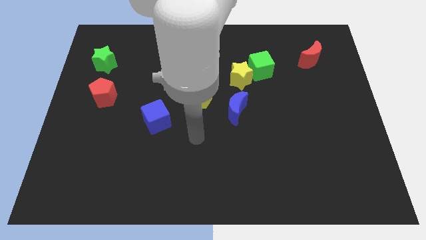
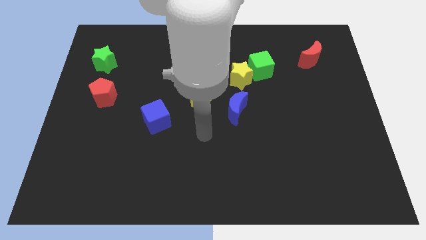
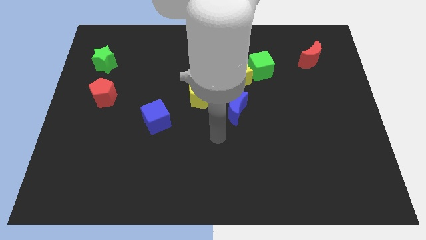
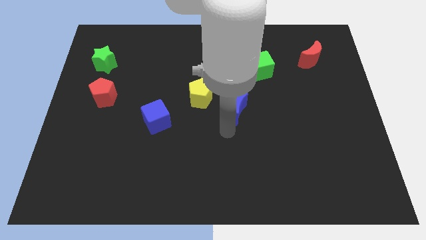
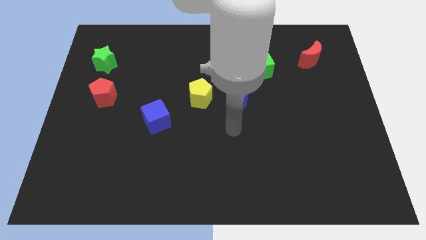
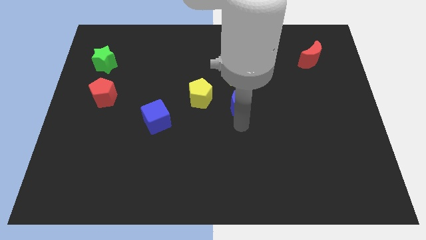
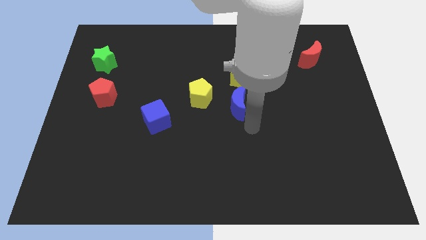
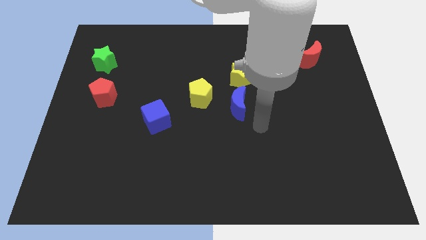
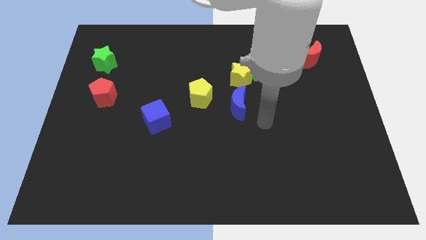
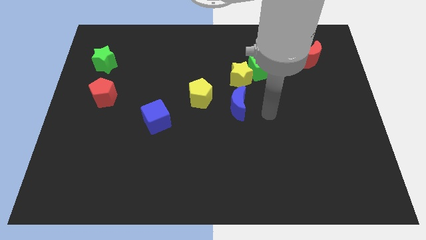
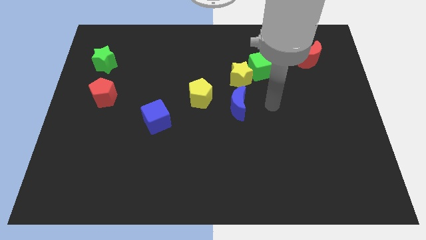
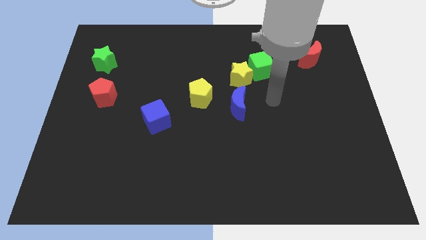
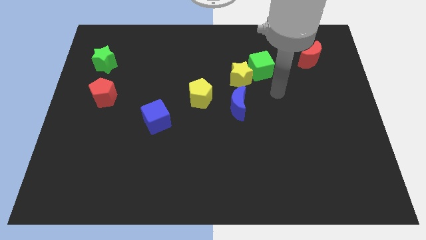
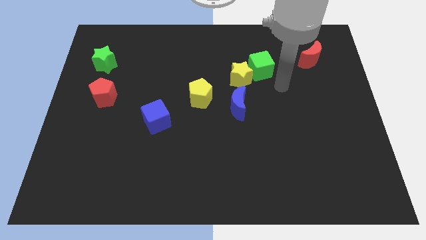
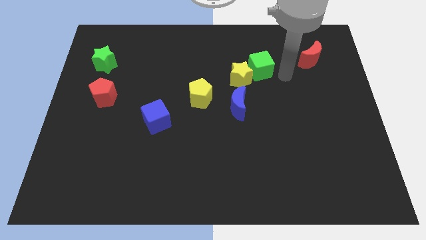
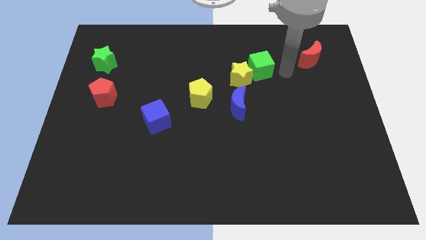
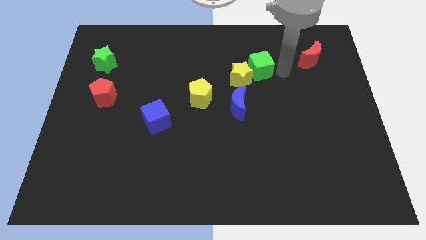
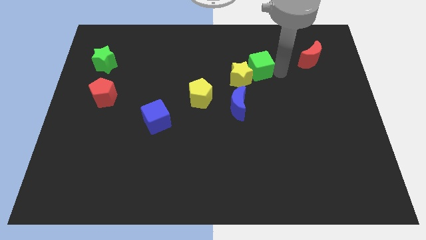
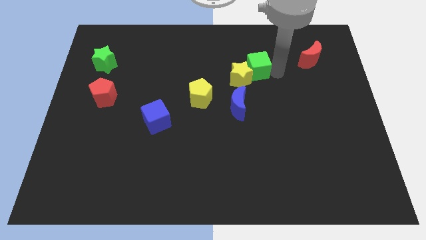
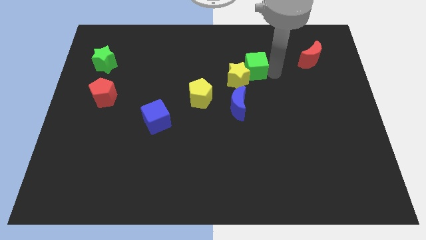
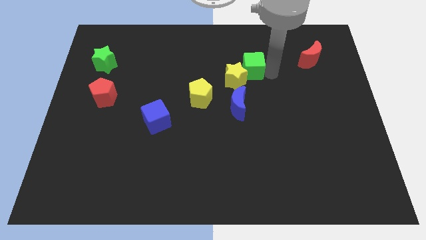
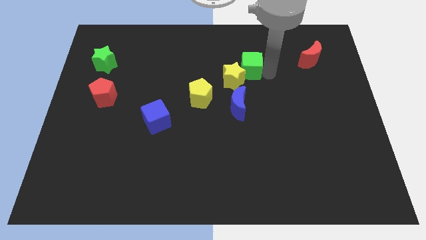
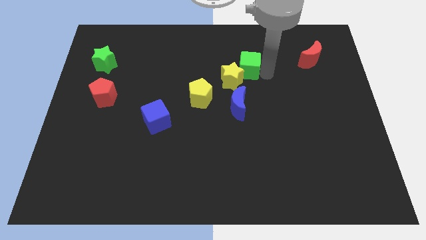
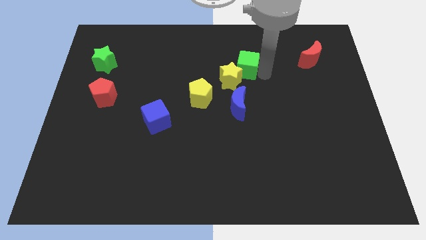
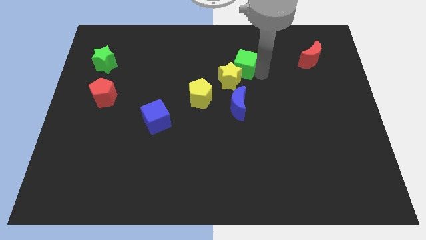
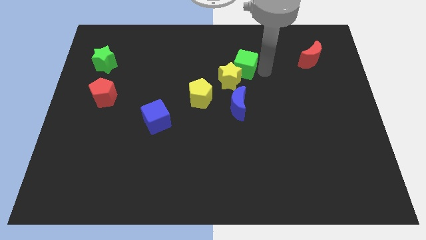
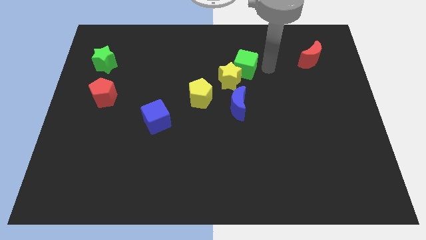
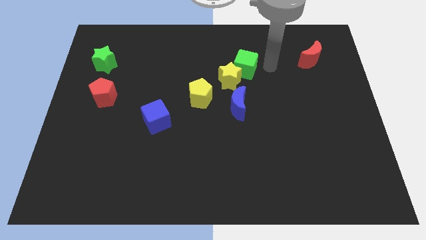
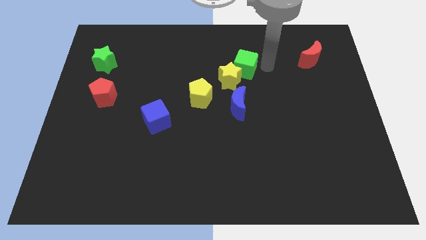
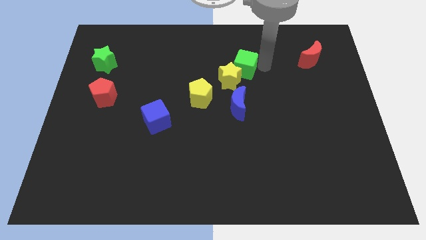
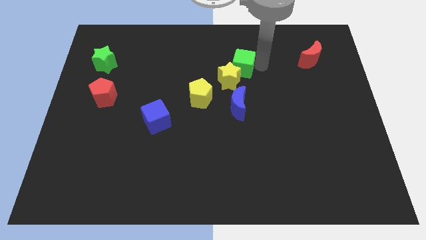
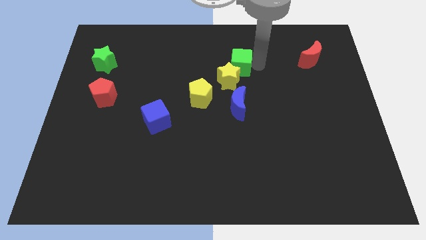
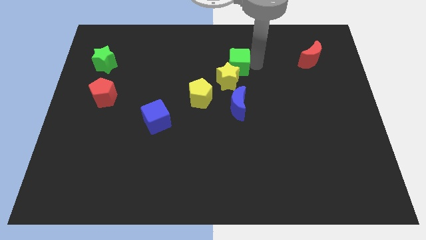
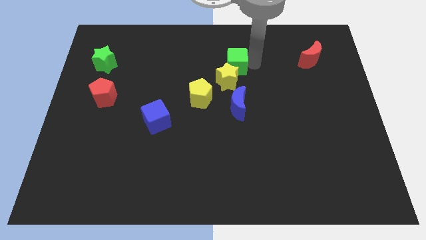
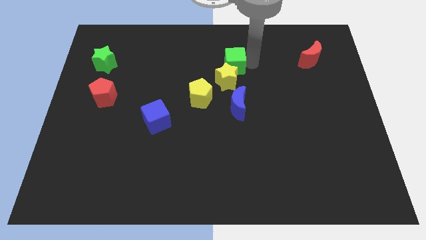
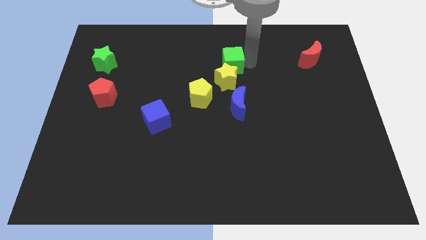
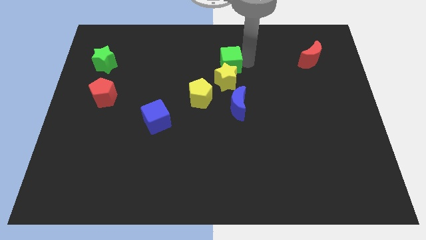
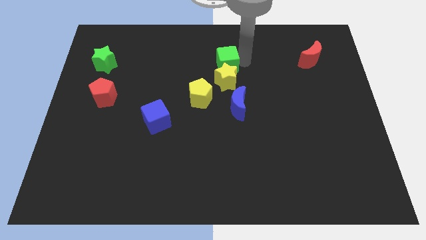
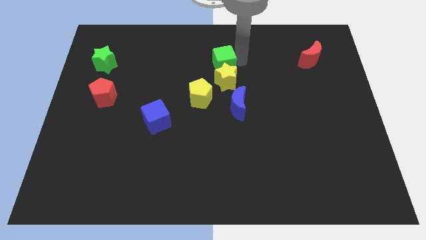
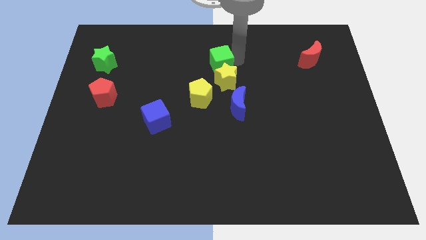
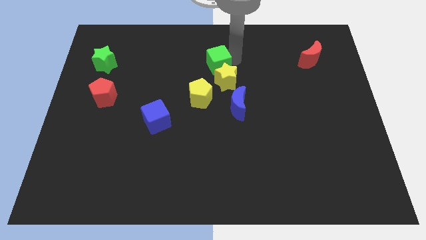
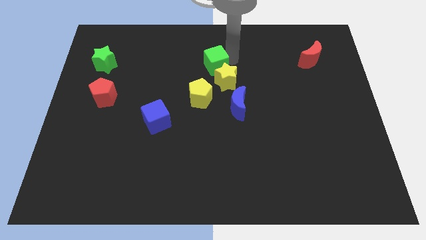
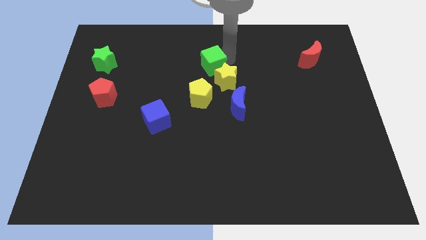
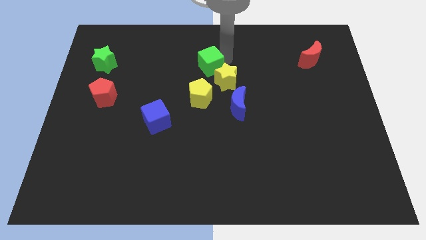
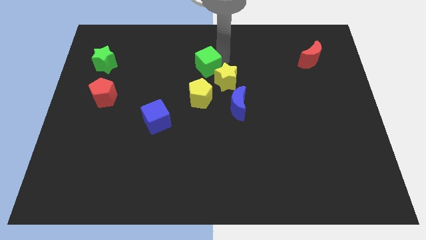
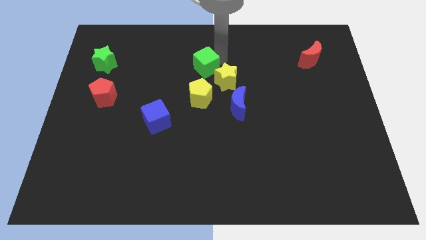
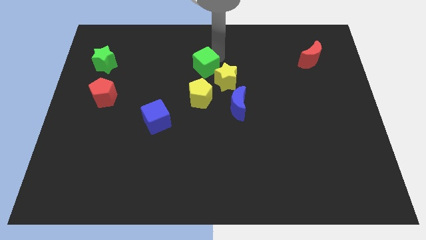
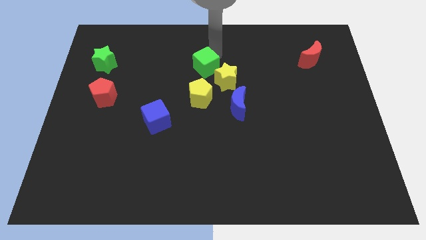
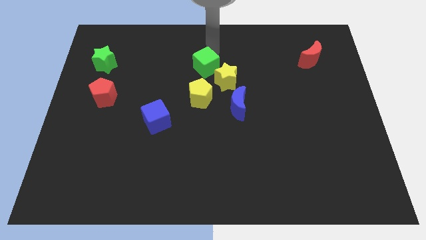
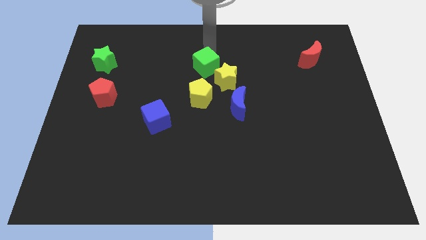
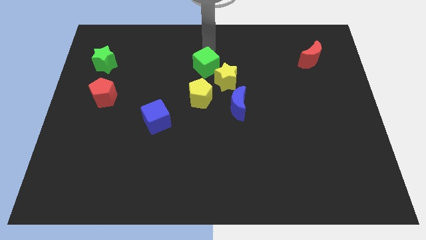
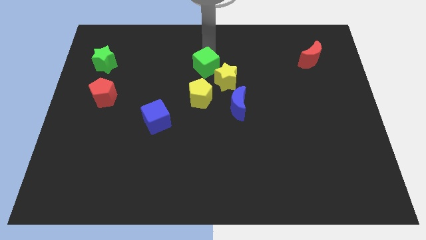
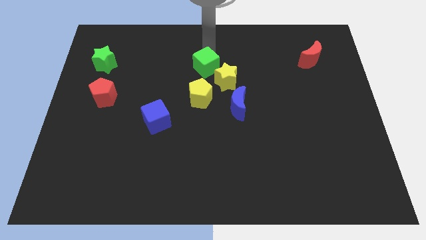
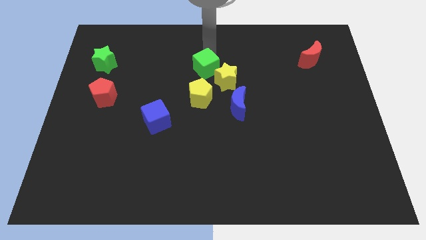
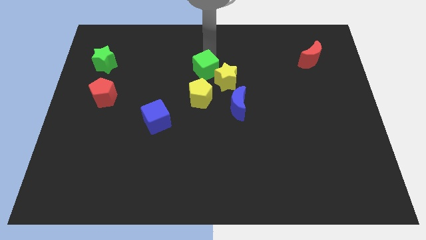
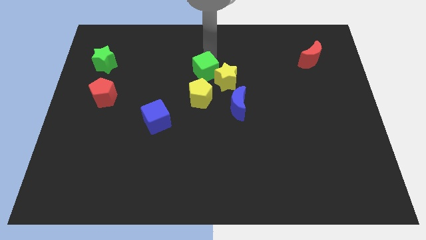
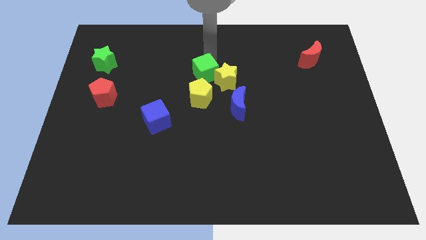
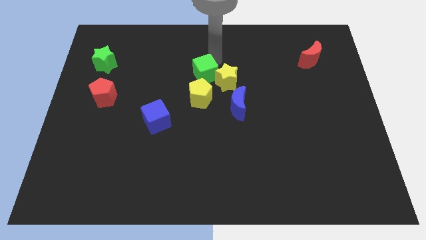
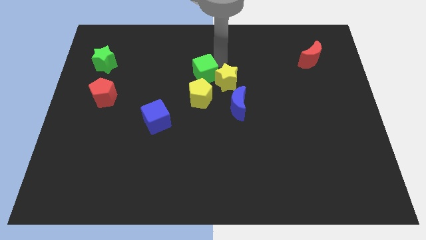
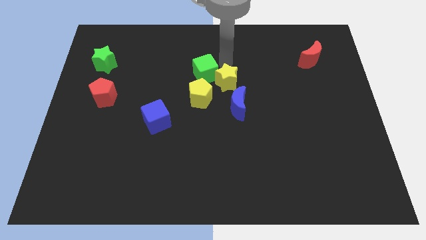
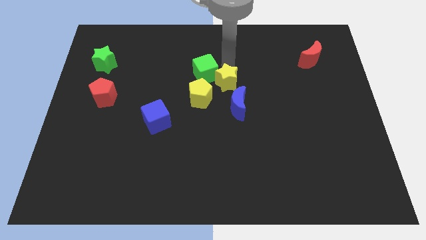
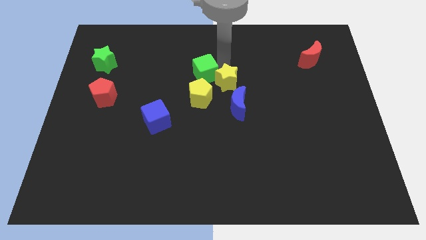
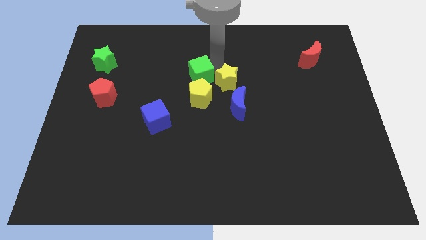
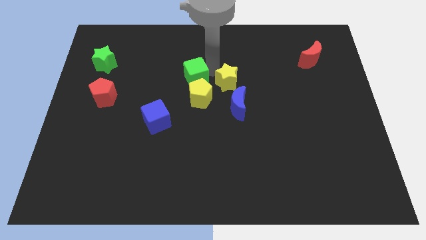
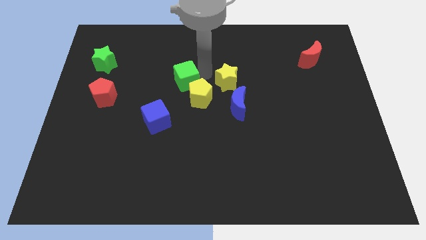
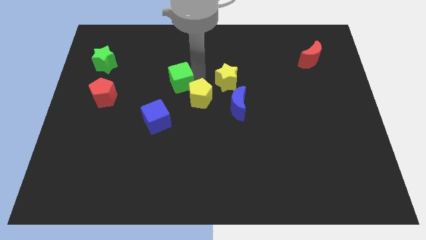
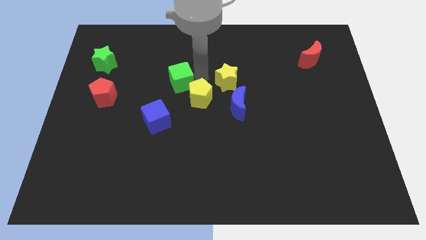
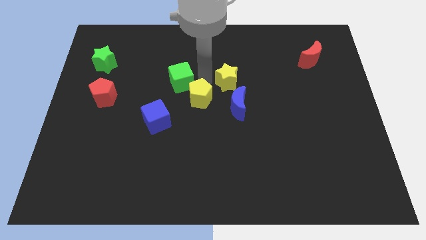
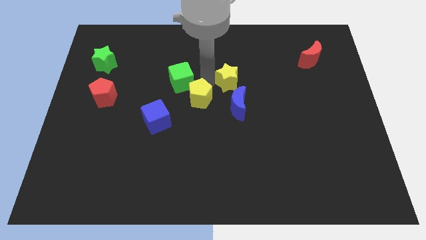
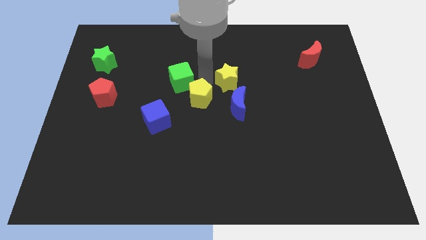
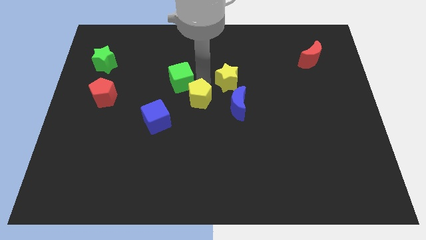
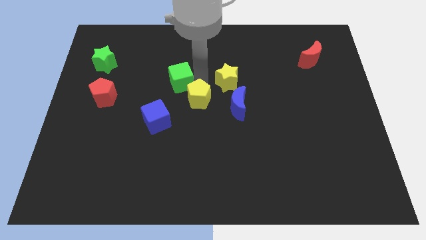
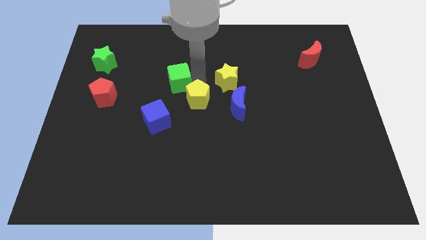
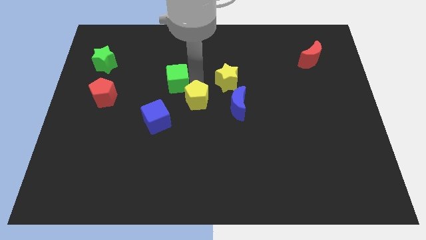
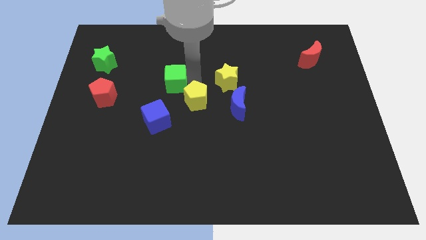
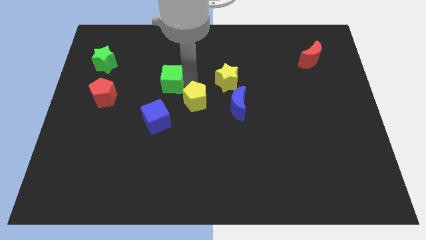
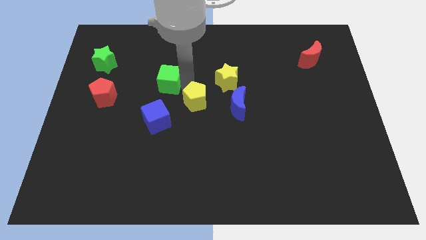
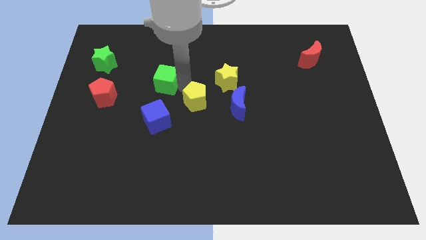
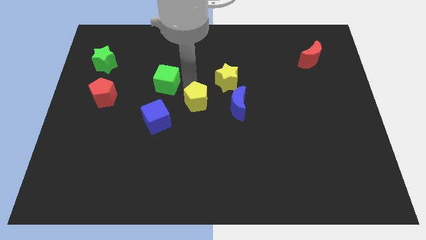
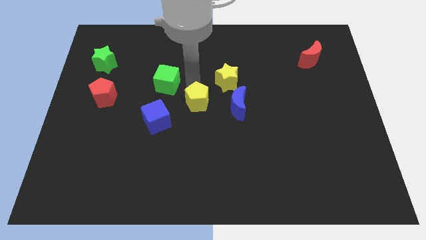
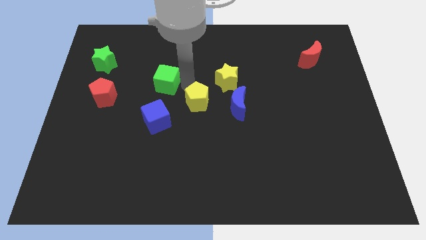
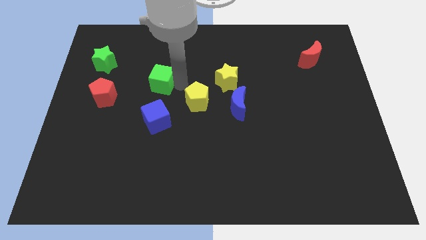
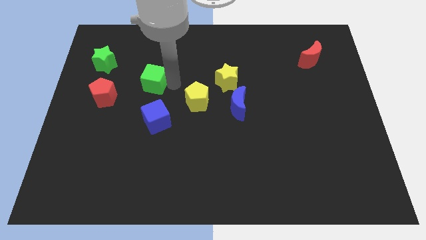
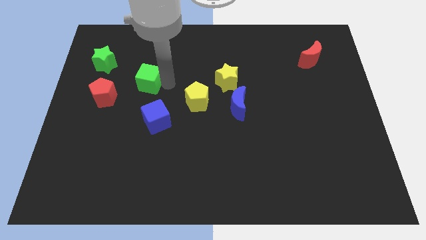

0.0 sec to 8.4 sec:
put the green cube to the top right side of the red pentagon
